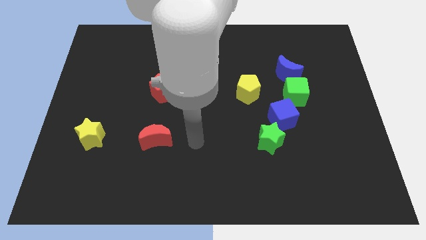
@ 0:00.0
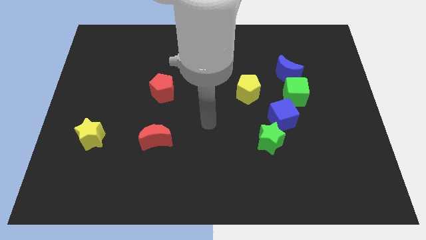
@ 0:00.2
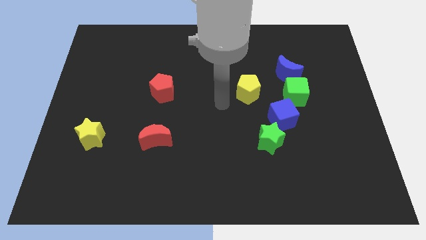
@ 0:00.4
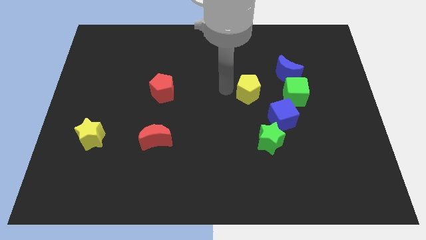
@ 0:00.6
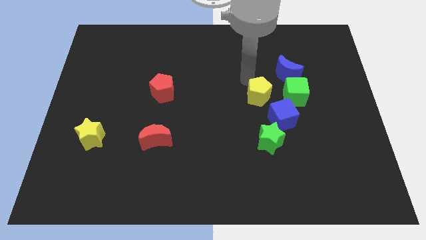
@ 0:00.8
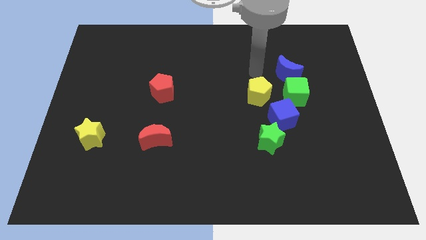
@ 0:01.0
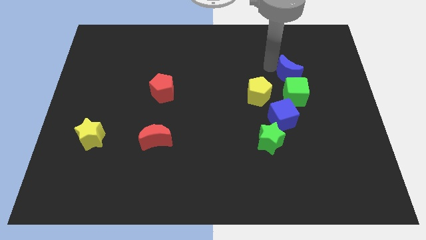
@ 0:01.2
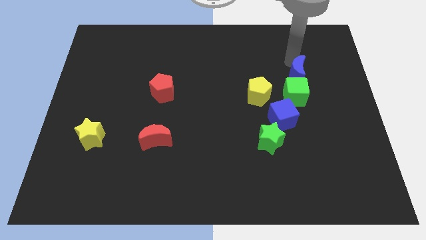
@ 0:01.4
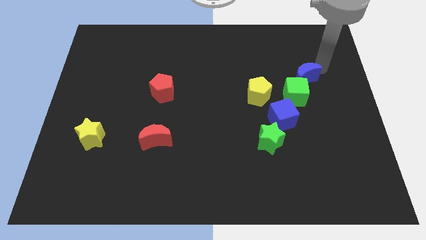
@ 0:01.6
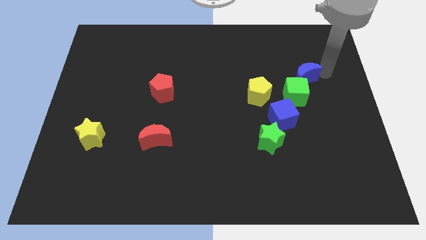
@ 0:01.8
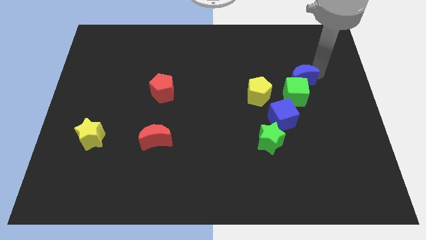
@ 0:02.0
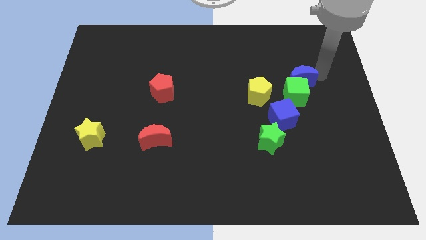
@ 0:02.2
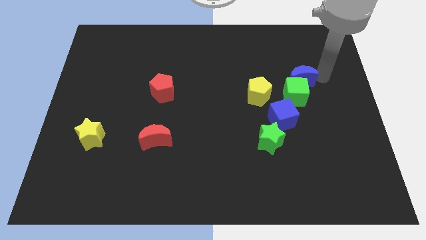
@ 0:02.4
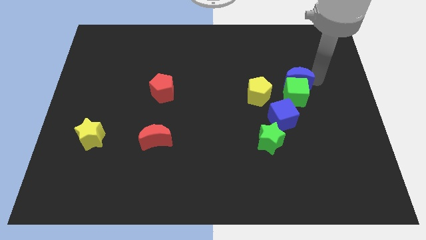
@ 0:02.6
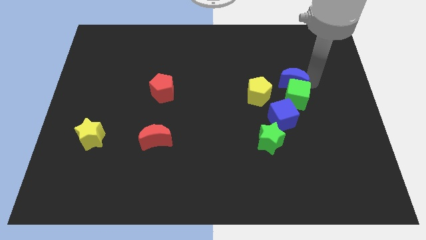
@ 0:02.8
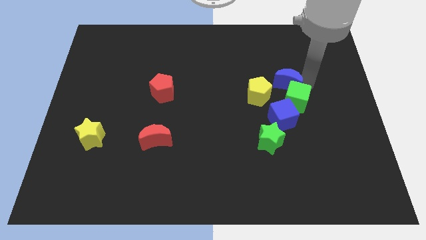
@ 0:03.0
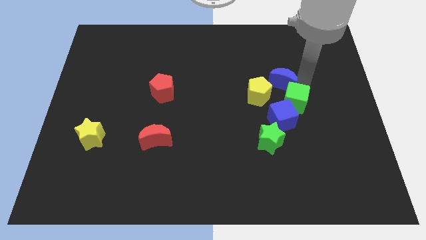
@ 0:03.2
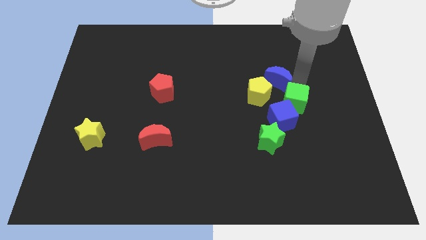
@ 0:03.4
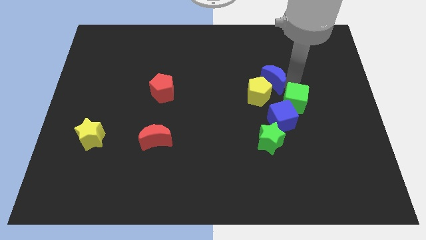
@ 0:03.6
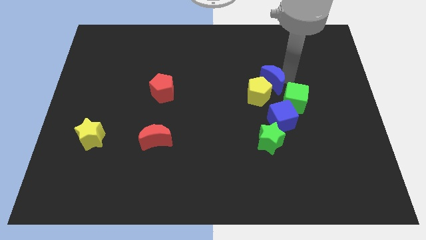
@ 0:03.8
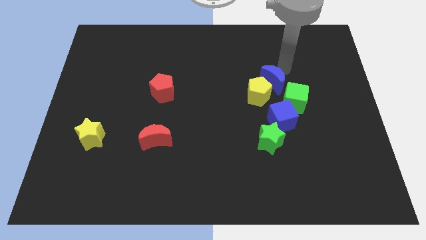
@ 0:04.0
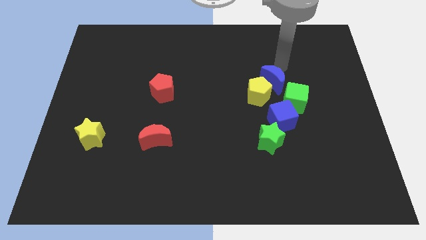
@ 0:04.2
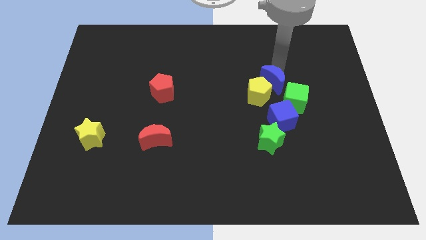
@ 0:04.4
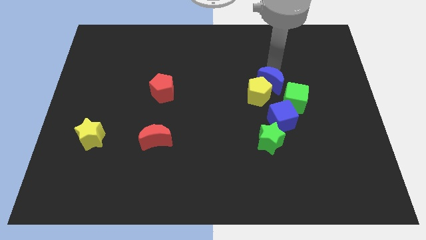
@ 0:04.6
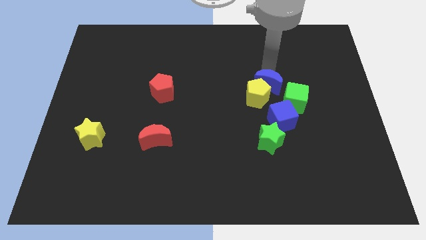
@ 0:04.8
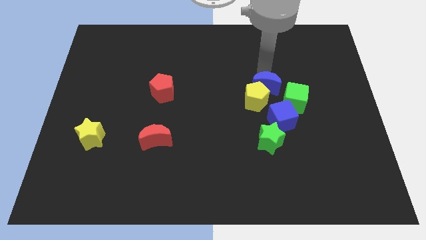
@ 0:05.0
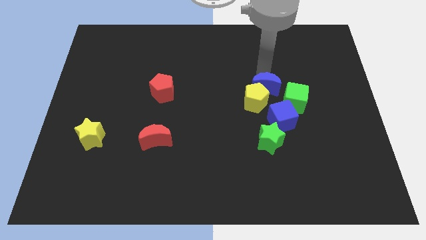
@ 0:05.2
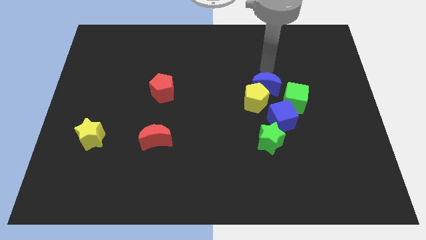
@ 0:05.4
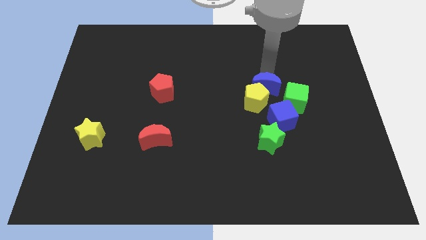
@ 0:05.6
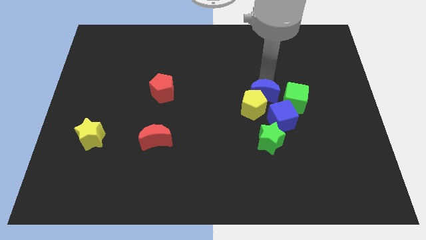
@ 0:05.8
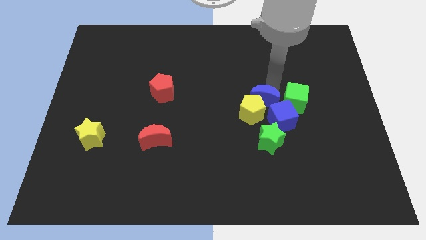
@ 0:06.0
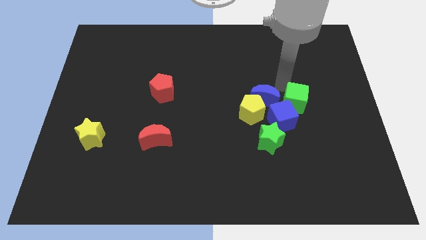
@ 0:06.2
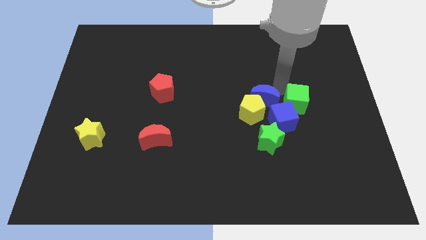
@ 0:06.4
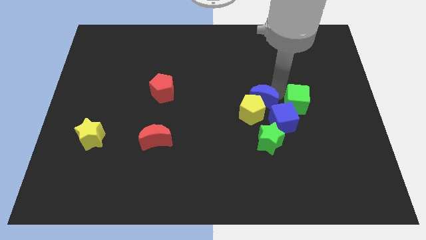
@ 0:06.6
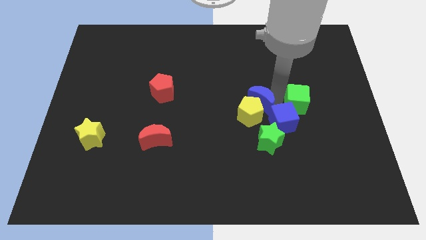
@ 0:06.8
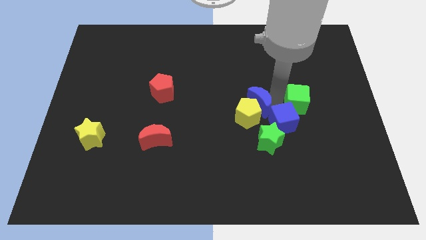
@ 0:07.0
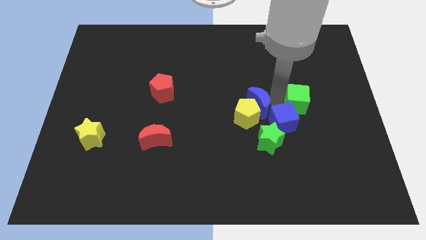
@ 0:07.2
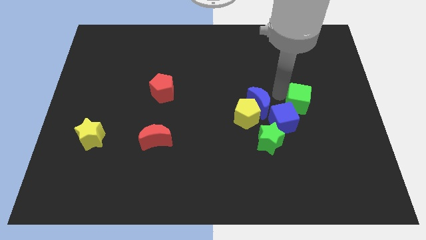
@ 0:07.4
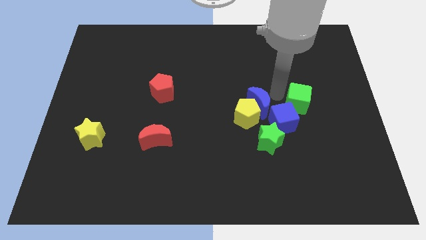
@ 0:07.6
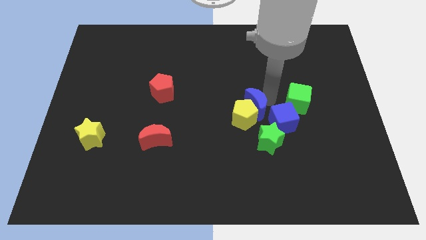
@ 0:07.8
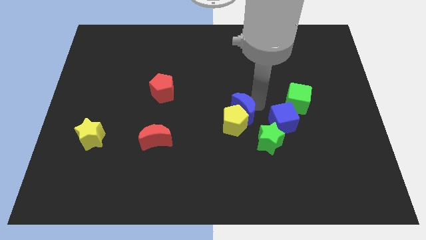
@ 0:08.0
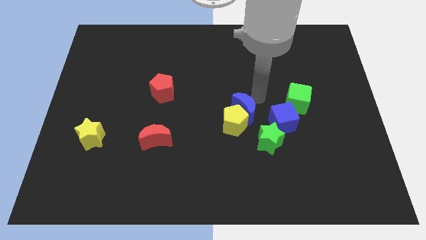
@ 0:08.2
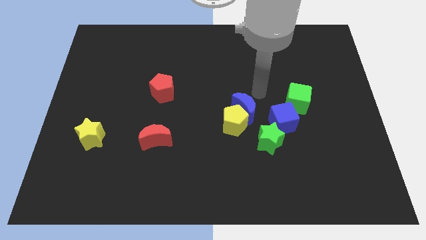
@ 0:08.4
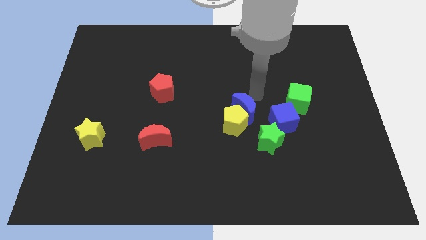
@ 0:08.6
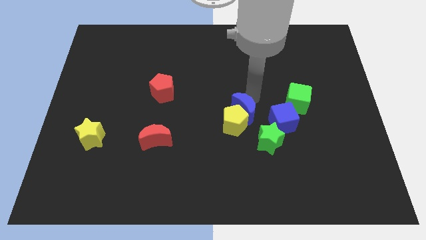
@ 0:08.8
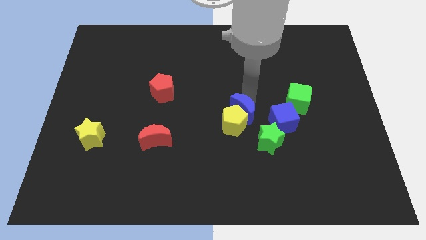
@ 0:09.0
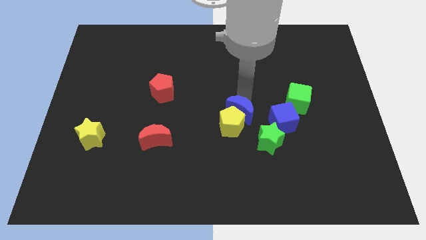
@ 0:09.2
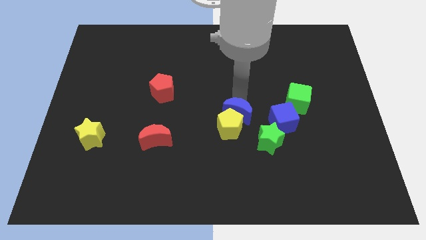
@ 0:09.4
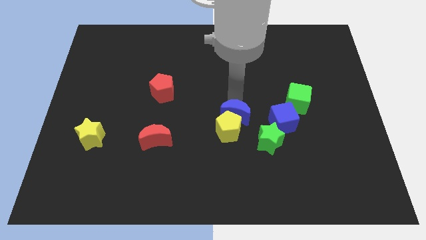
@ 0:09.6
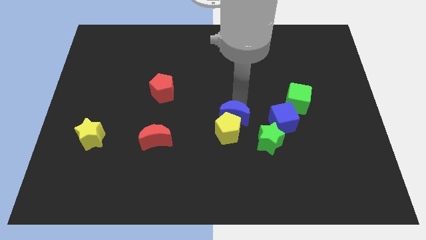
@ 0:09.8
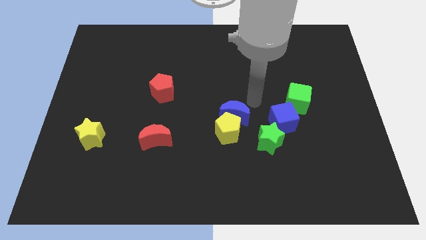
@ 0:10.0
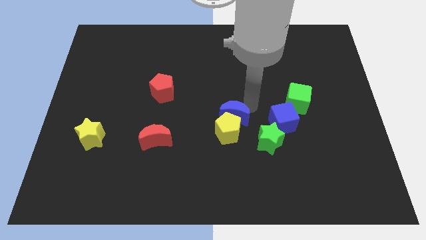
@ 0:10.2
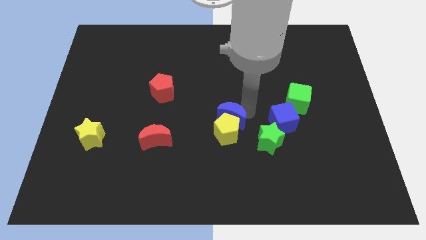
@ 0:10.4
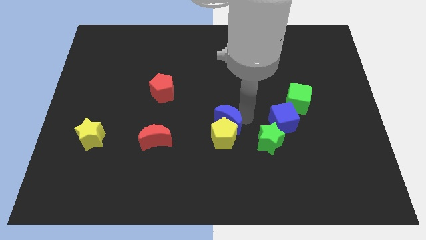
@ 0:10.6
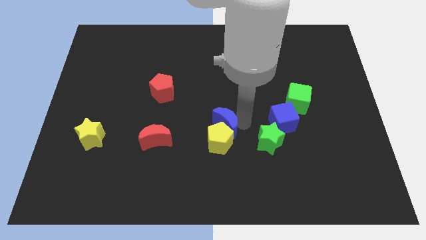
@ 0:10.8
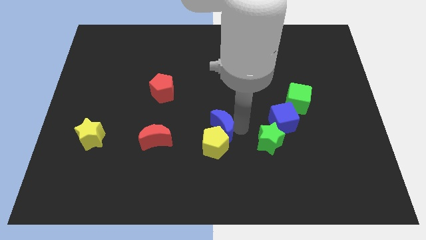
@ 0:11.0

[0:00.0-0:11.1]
push the blue moon right of the red moon

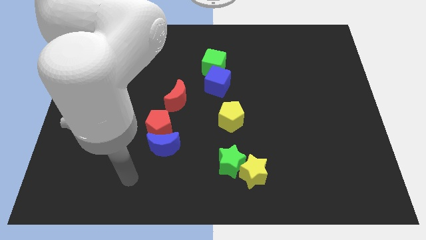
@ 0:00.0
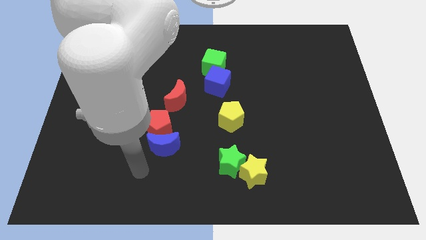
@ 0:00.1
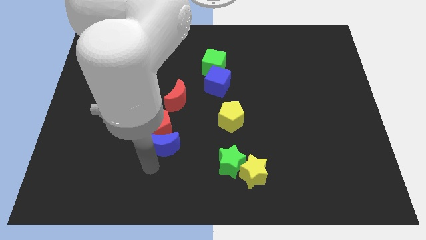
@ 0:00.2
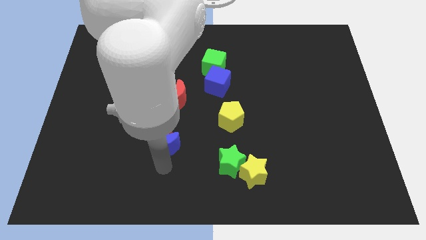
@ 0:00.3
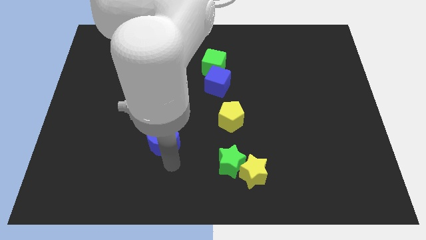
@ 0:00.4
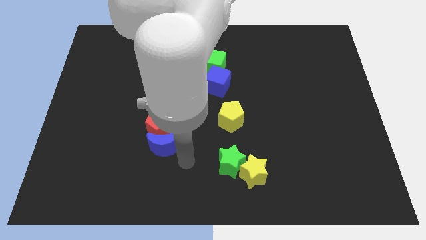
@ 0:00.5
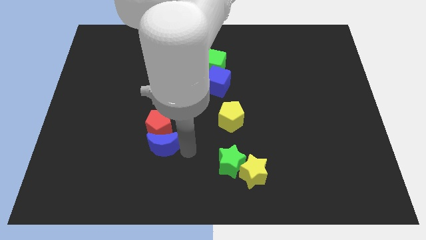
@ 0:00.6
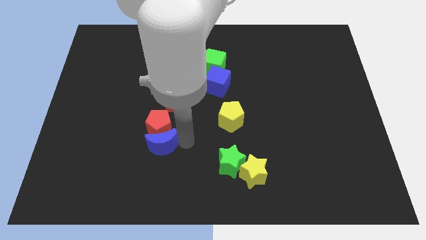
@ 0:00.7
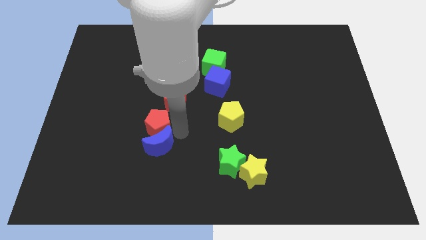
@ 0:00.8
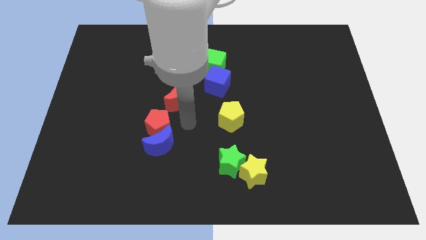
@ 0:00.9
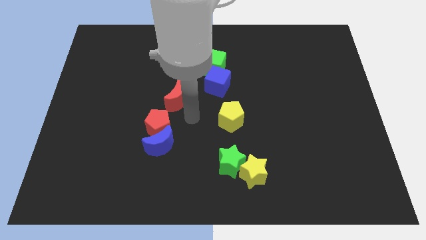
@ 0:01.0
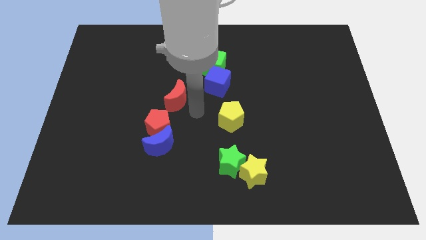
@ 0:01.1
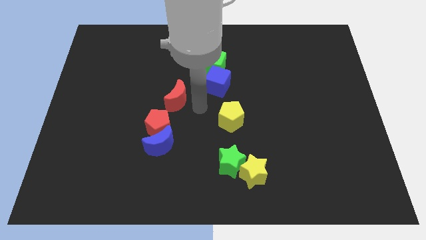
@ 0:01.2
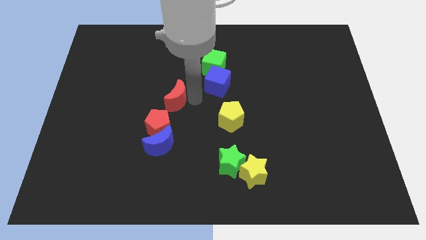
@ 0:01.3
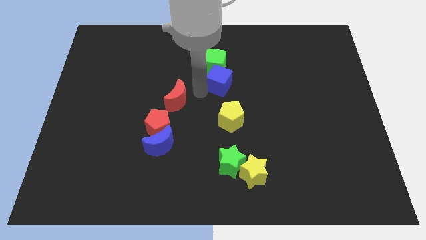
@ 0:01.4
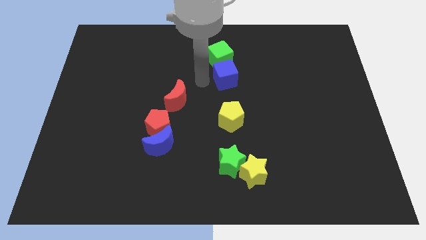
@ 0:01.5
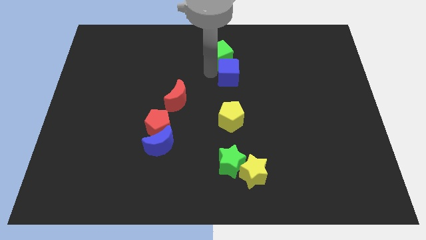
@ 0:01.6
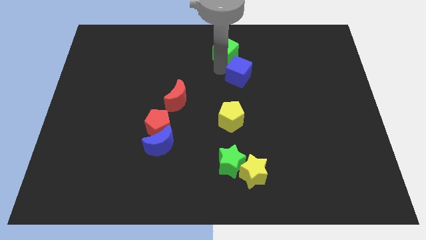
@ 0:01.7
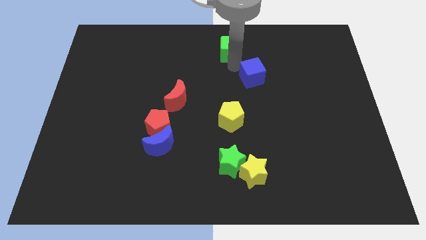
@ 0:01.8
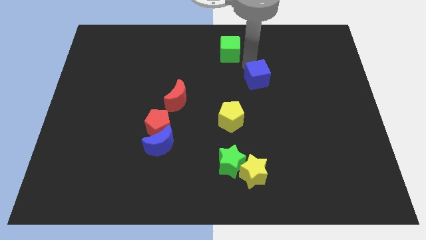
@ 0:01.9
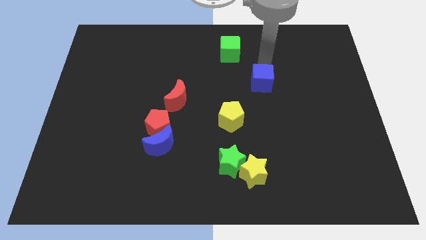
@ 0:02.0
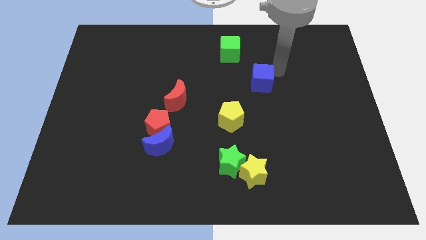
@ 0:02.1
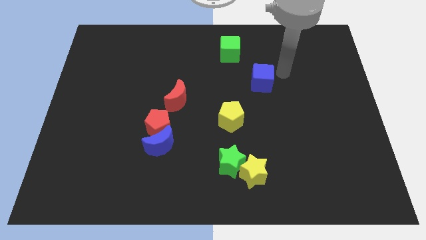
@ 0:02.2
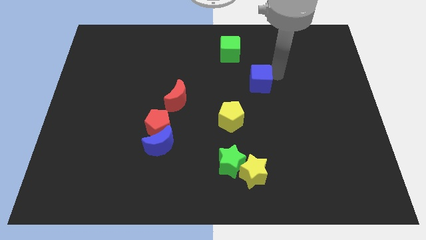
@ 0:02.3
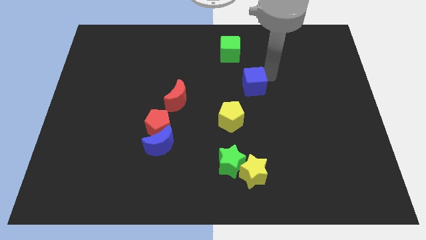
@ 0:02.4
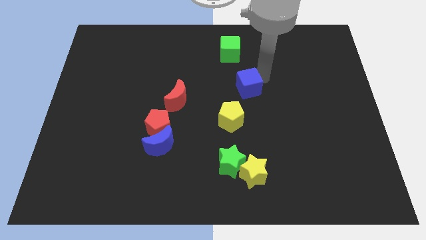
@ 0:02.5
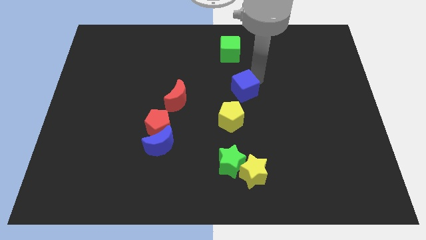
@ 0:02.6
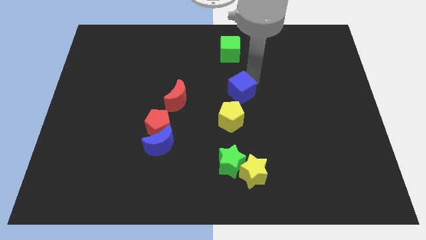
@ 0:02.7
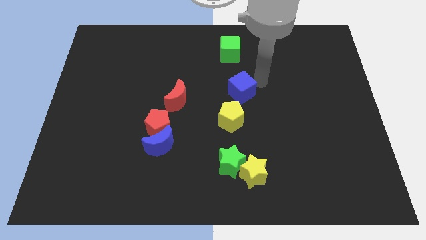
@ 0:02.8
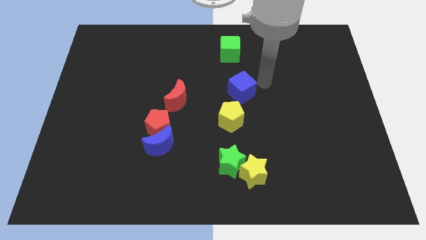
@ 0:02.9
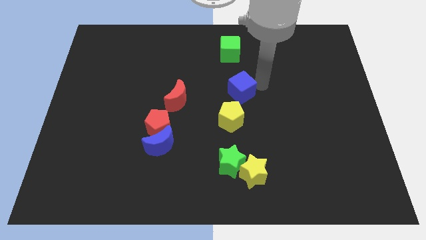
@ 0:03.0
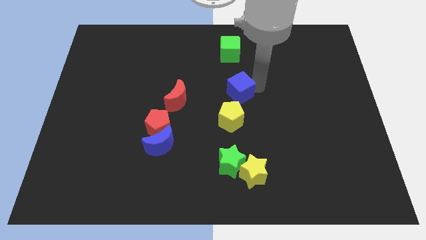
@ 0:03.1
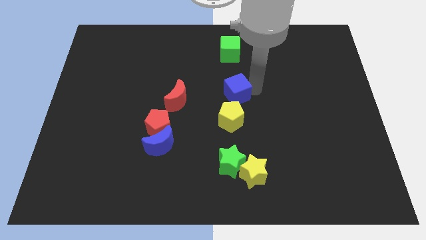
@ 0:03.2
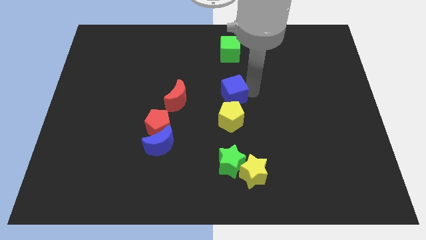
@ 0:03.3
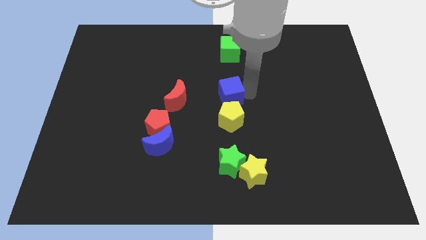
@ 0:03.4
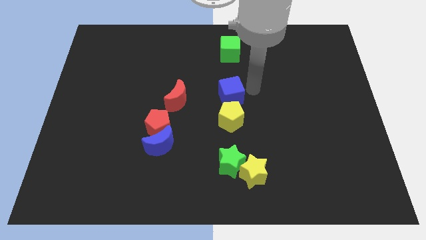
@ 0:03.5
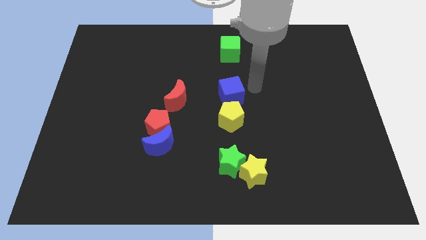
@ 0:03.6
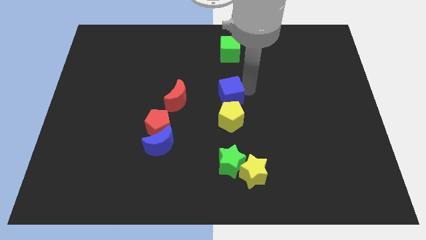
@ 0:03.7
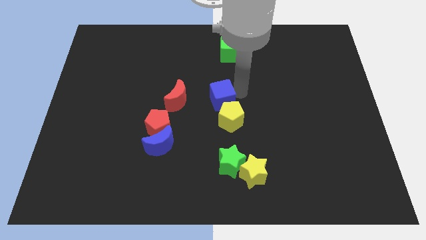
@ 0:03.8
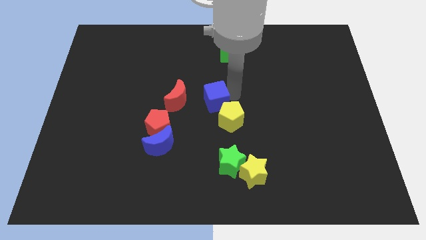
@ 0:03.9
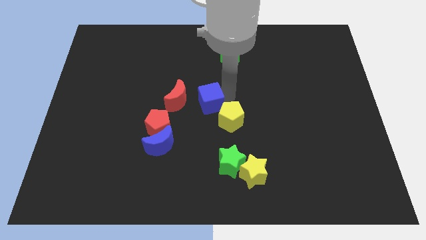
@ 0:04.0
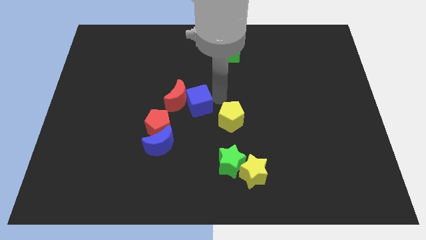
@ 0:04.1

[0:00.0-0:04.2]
move the blue cube just left of the yellow pentagon
